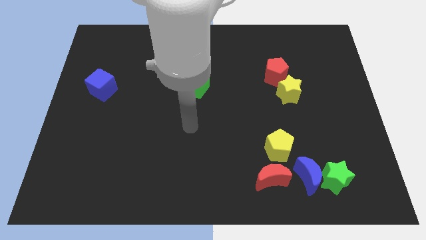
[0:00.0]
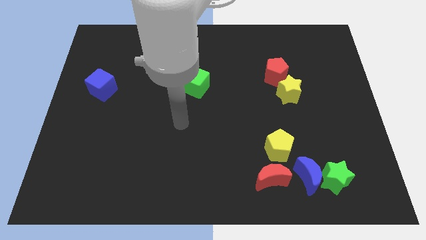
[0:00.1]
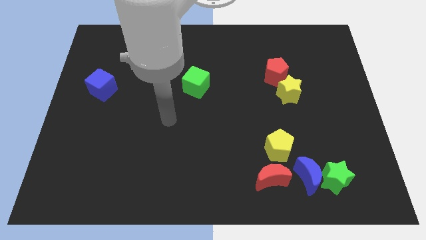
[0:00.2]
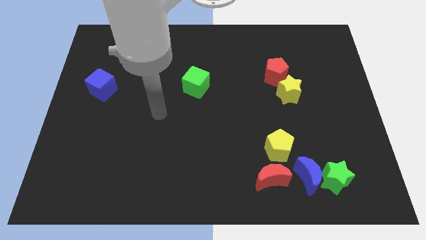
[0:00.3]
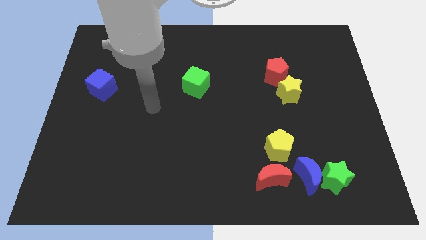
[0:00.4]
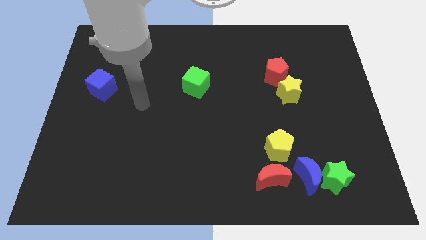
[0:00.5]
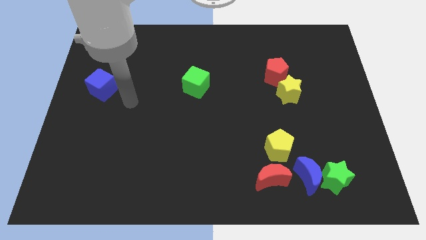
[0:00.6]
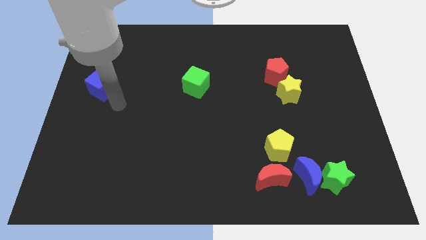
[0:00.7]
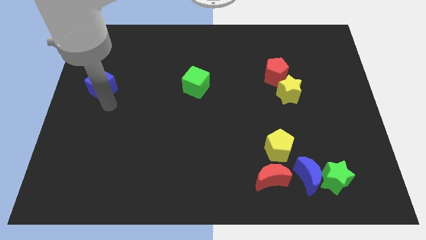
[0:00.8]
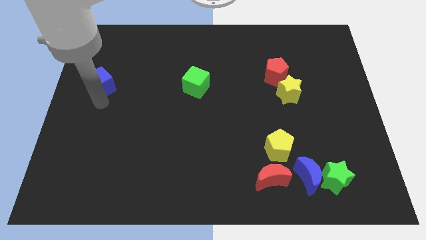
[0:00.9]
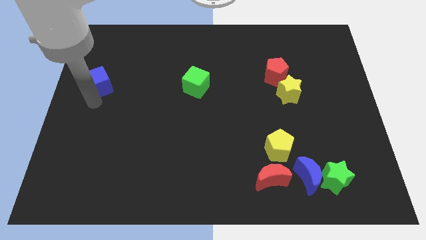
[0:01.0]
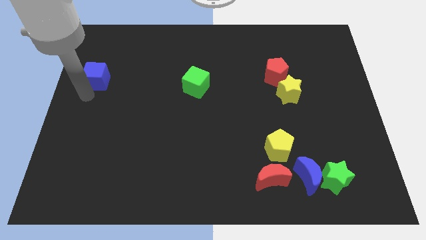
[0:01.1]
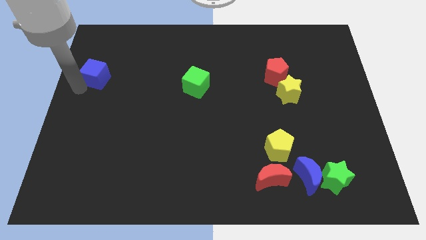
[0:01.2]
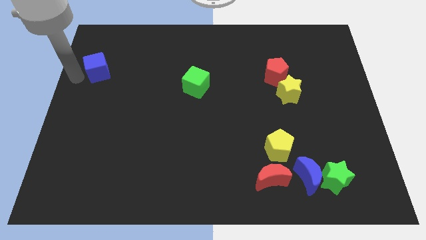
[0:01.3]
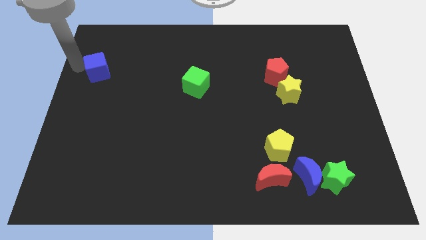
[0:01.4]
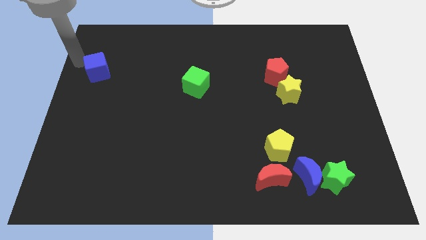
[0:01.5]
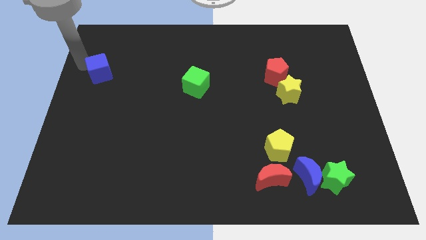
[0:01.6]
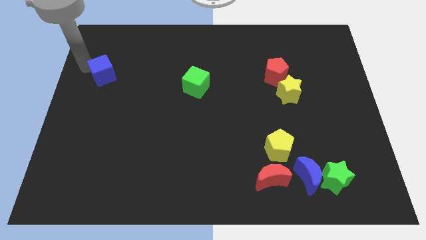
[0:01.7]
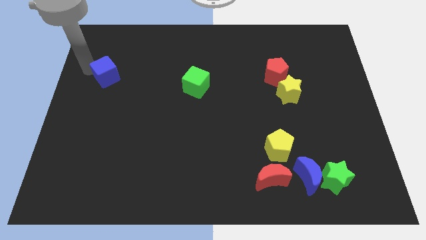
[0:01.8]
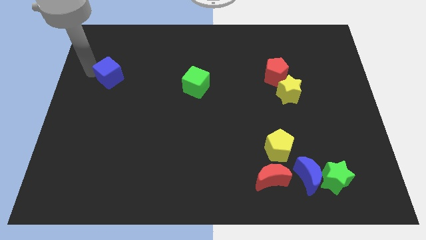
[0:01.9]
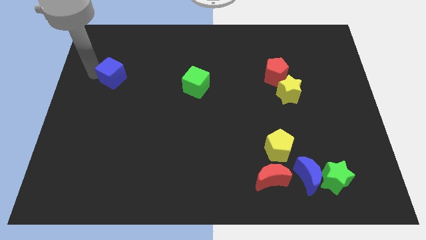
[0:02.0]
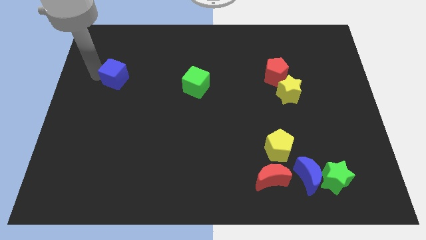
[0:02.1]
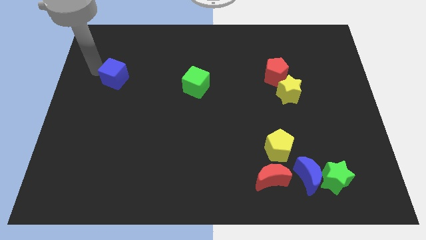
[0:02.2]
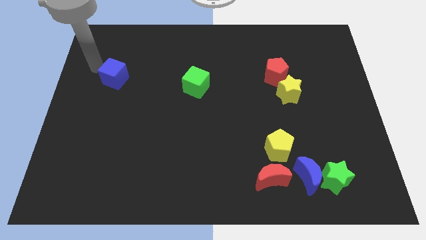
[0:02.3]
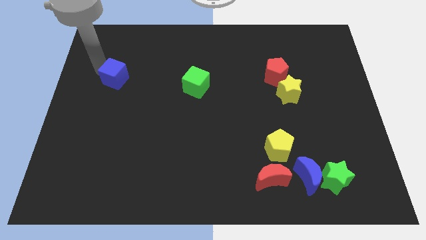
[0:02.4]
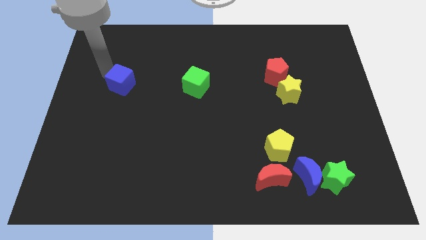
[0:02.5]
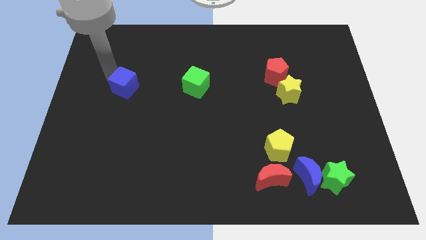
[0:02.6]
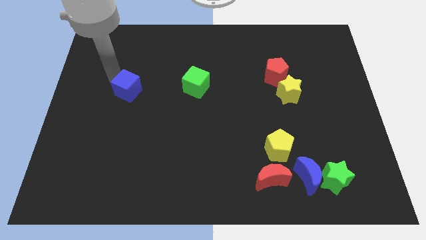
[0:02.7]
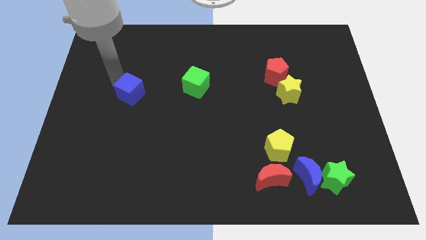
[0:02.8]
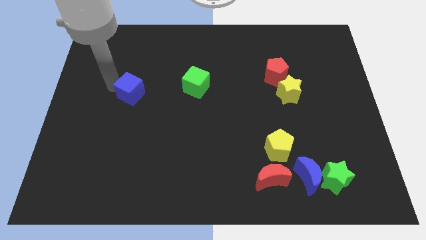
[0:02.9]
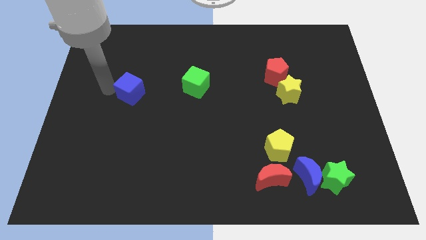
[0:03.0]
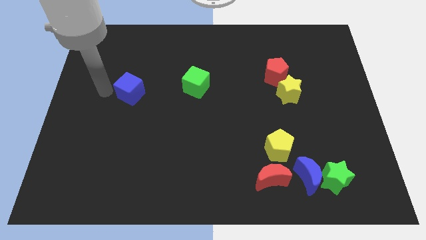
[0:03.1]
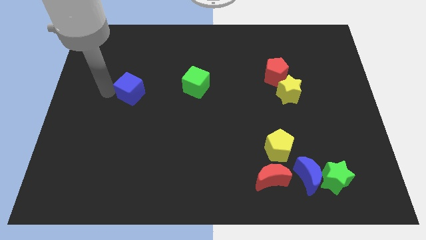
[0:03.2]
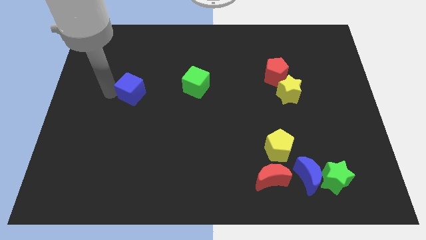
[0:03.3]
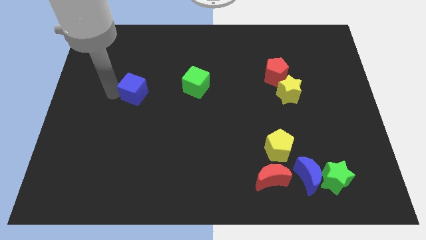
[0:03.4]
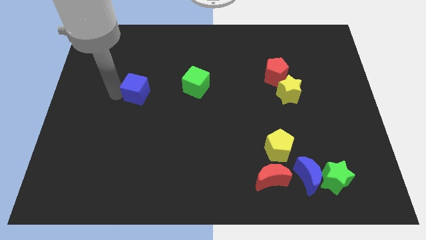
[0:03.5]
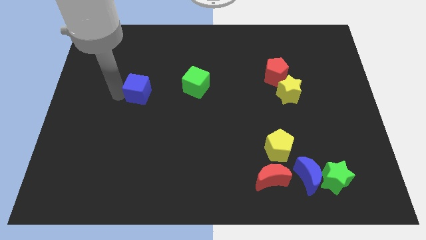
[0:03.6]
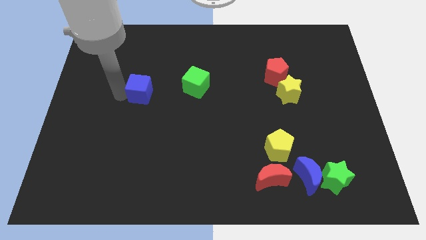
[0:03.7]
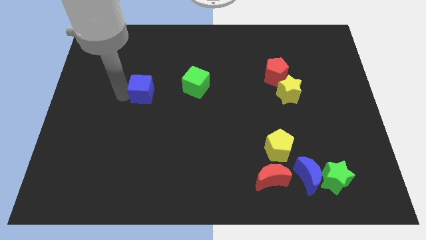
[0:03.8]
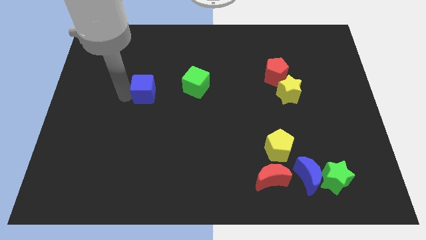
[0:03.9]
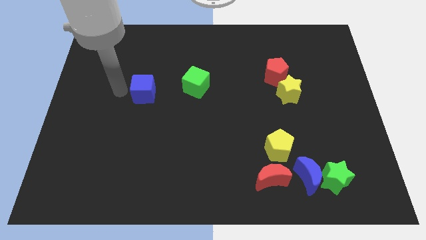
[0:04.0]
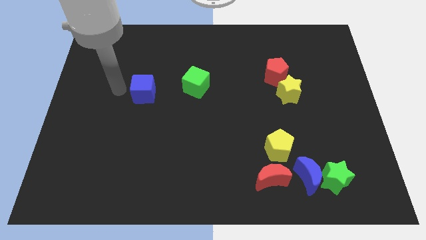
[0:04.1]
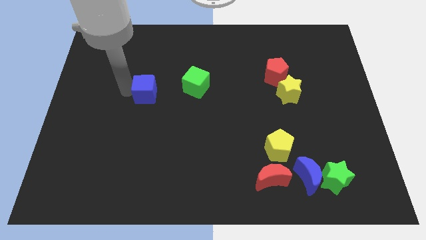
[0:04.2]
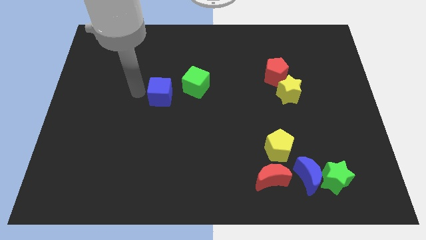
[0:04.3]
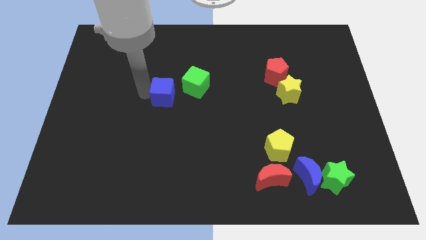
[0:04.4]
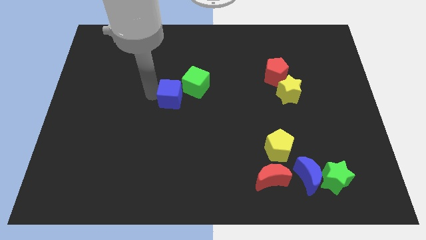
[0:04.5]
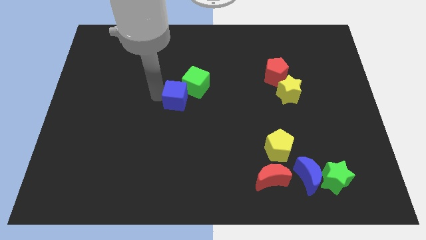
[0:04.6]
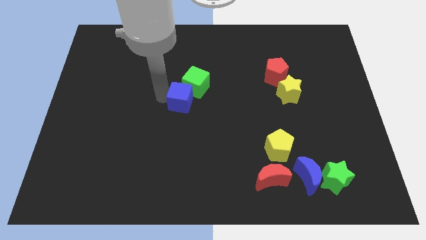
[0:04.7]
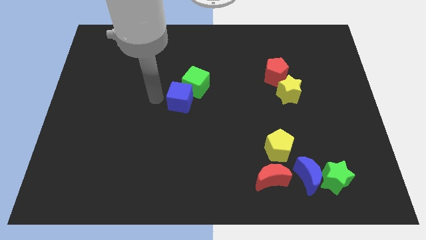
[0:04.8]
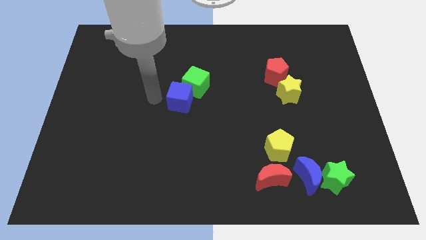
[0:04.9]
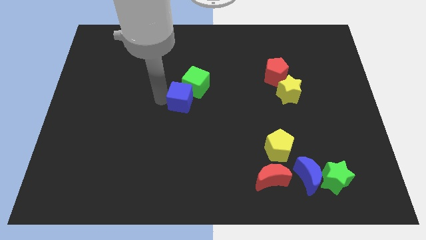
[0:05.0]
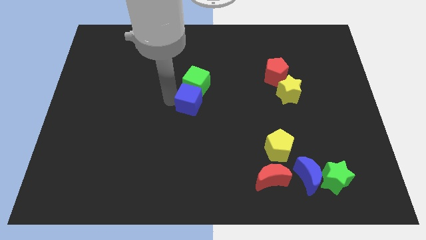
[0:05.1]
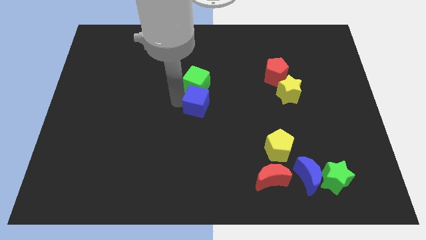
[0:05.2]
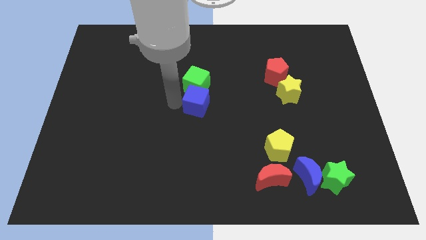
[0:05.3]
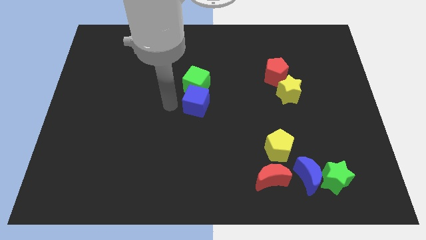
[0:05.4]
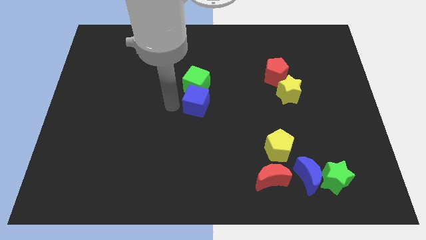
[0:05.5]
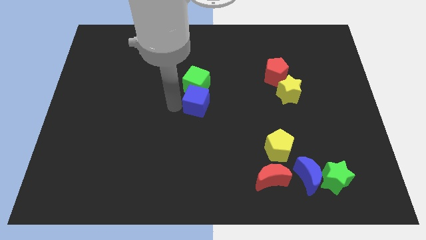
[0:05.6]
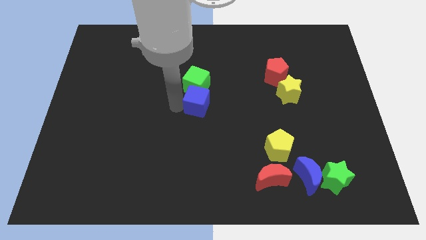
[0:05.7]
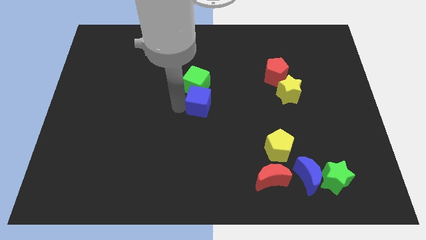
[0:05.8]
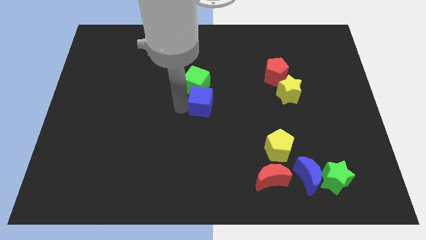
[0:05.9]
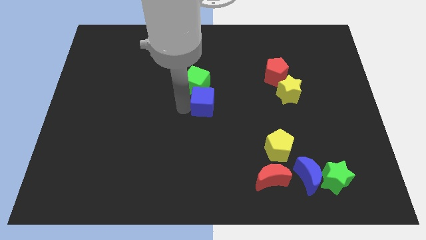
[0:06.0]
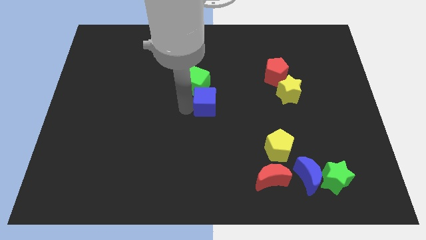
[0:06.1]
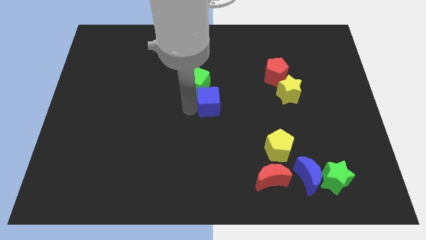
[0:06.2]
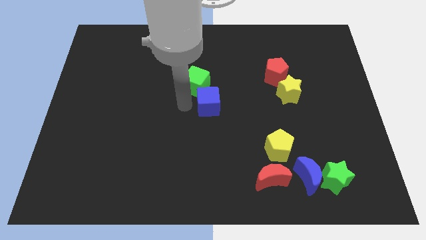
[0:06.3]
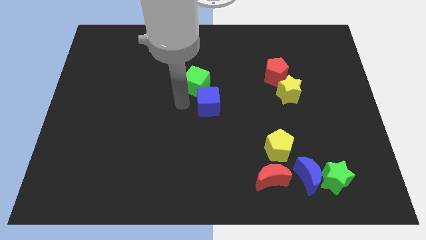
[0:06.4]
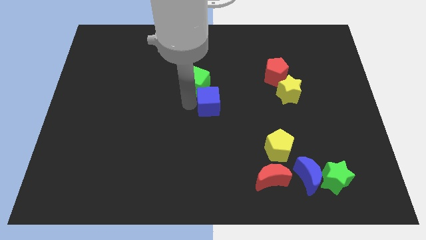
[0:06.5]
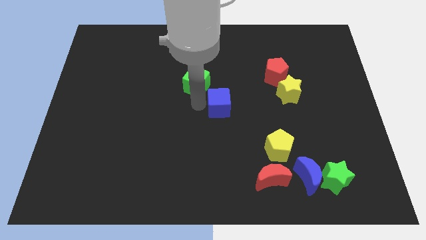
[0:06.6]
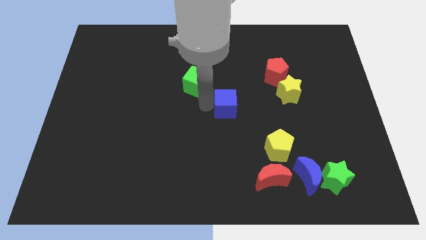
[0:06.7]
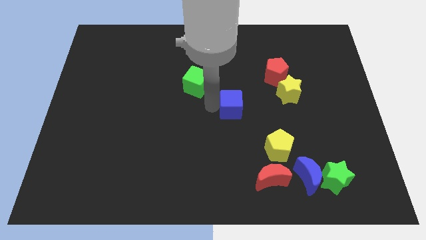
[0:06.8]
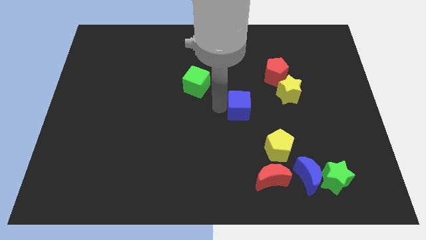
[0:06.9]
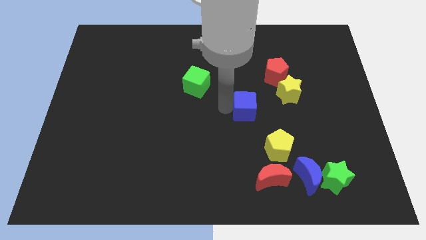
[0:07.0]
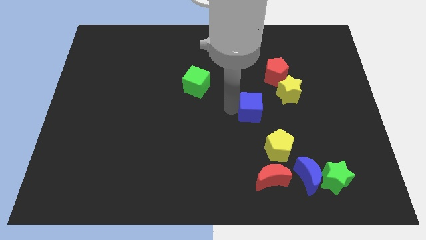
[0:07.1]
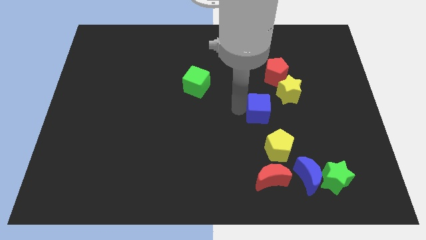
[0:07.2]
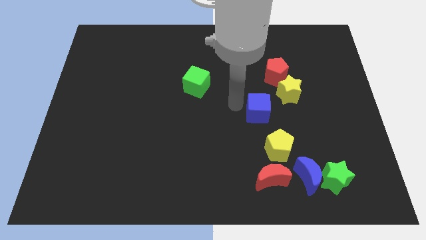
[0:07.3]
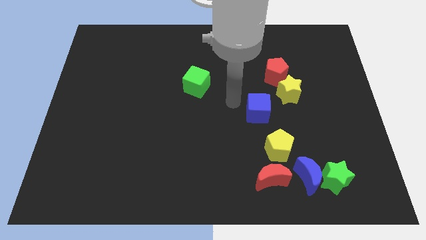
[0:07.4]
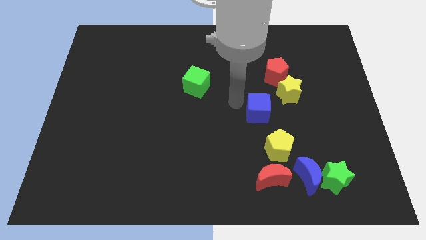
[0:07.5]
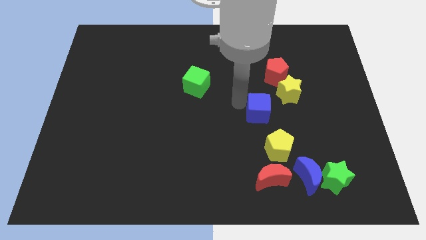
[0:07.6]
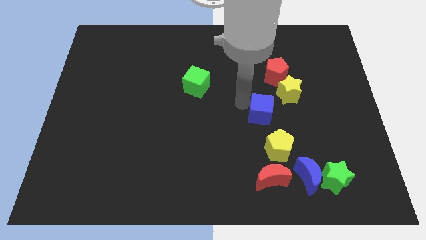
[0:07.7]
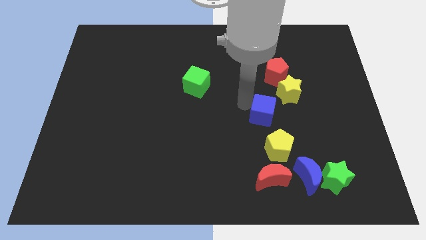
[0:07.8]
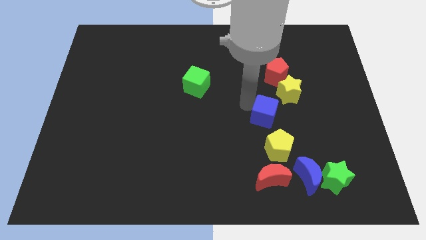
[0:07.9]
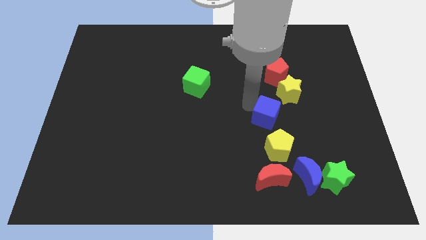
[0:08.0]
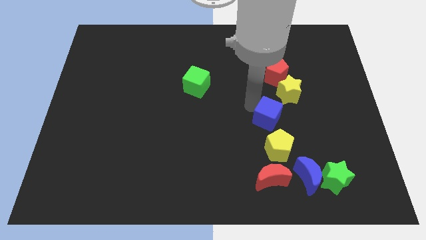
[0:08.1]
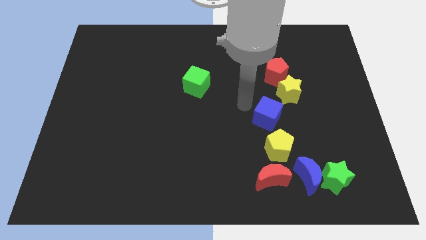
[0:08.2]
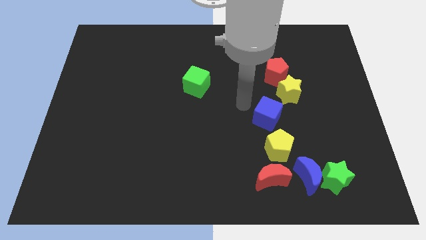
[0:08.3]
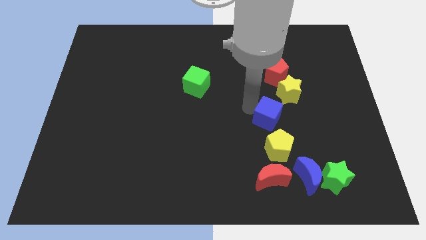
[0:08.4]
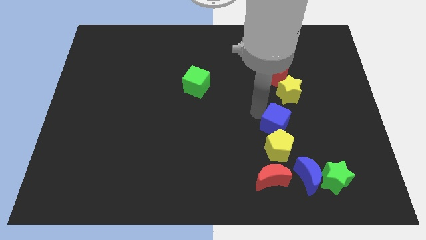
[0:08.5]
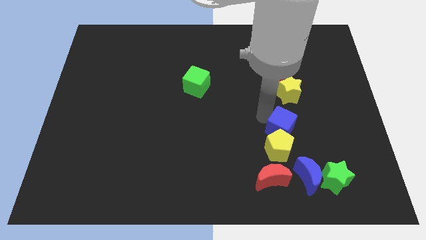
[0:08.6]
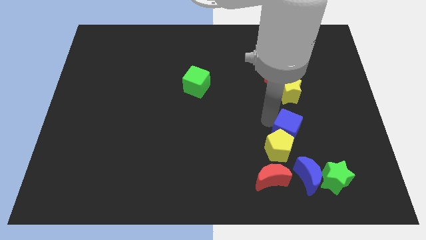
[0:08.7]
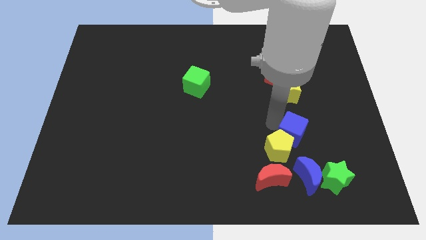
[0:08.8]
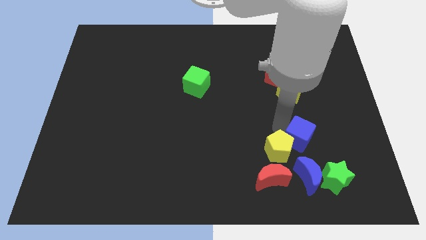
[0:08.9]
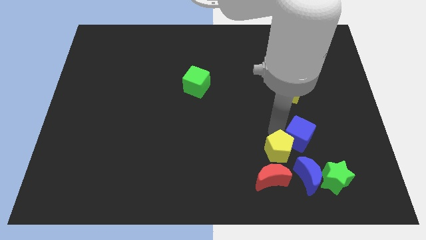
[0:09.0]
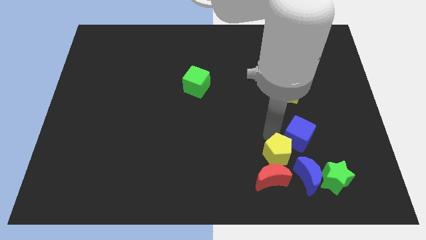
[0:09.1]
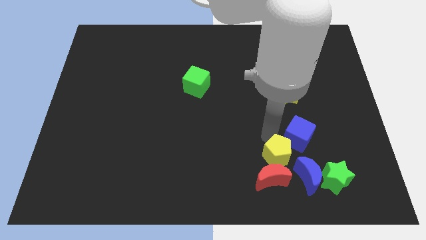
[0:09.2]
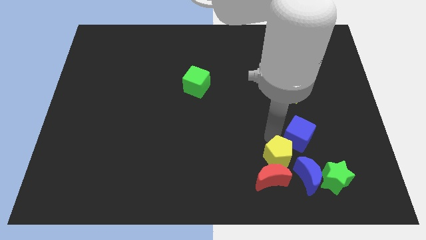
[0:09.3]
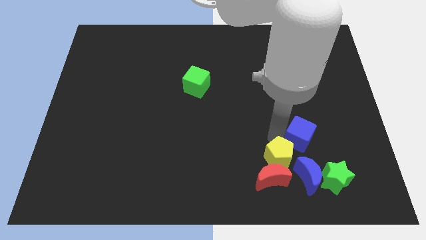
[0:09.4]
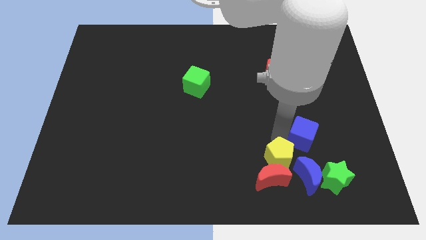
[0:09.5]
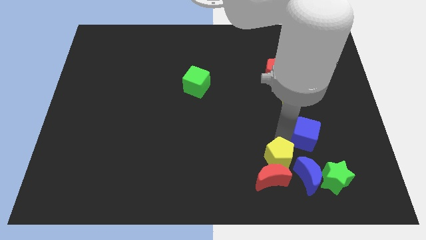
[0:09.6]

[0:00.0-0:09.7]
slide the blue cube above the green star
